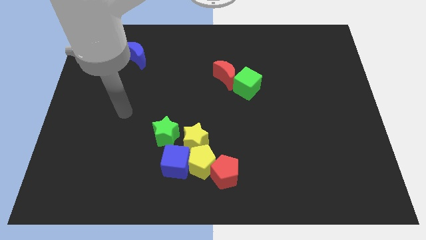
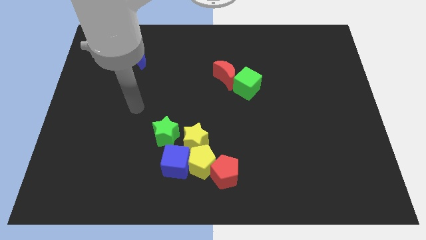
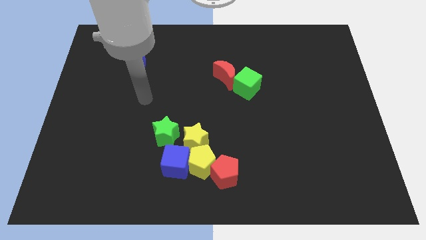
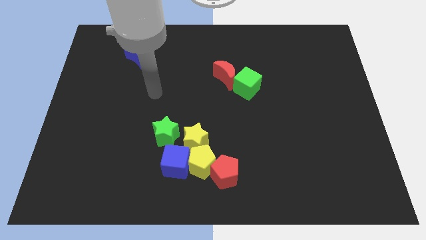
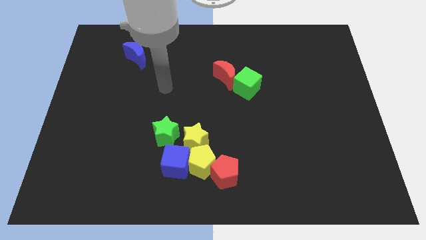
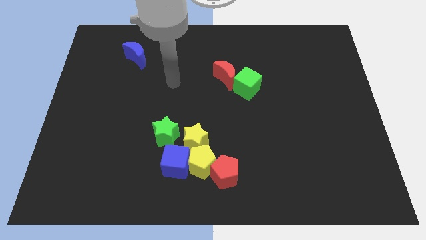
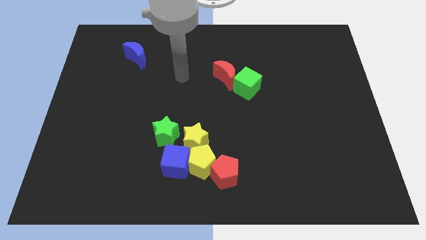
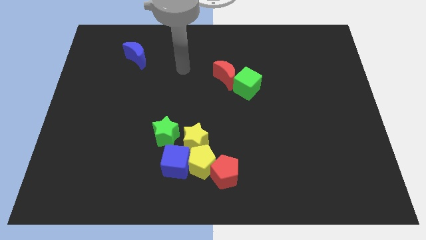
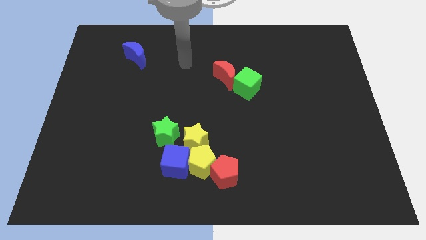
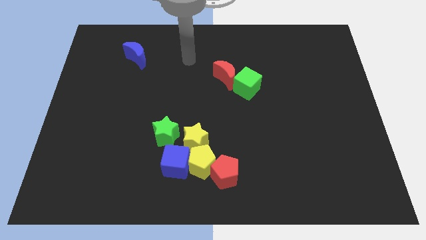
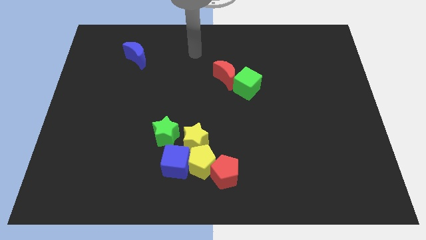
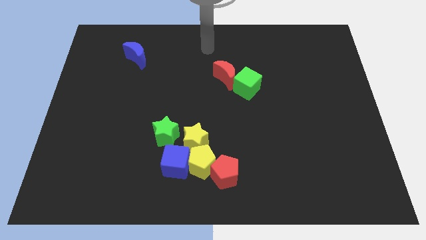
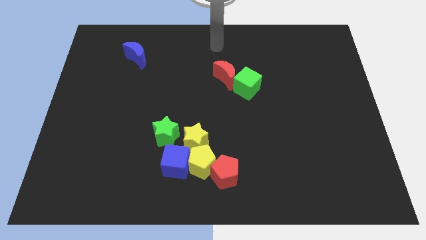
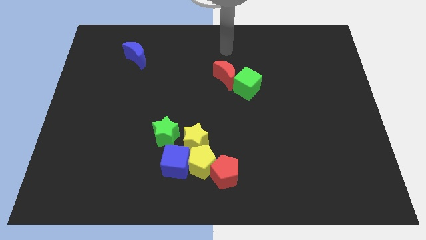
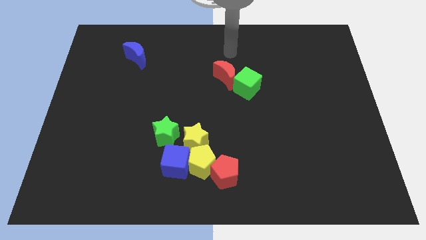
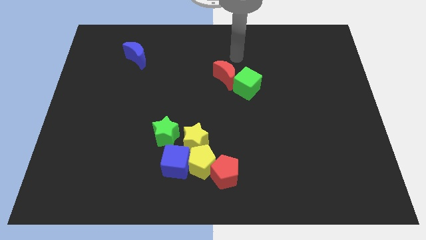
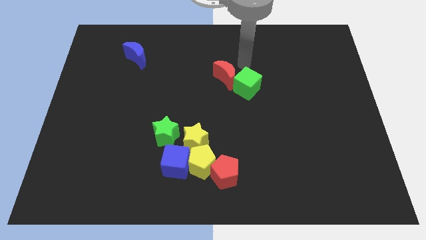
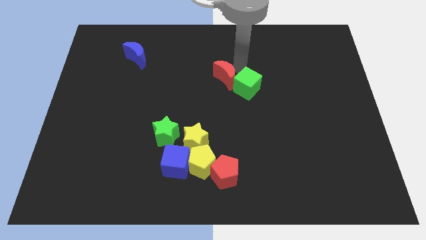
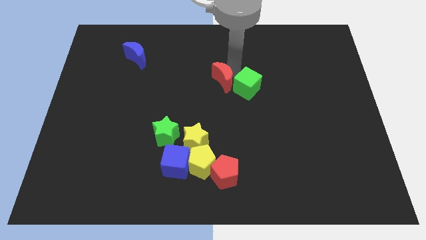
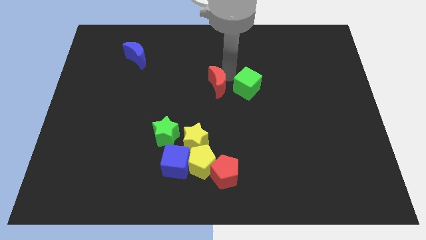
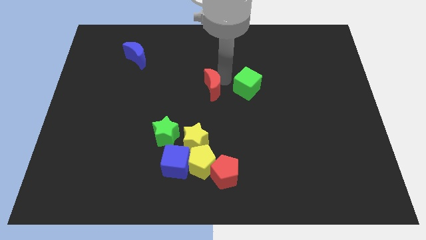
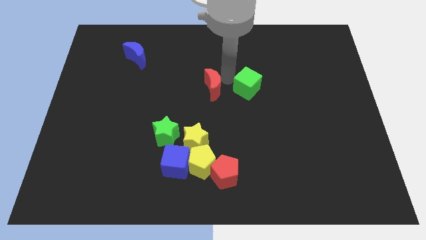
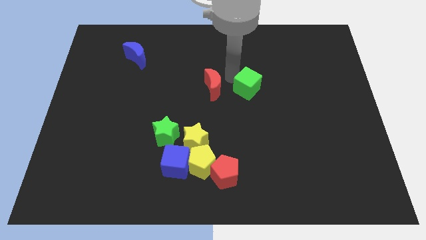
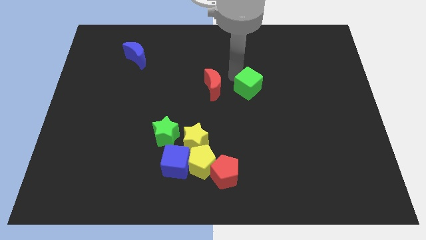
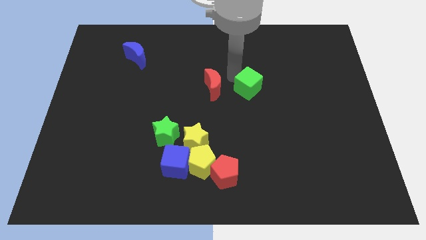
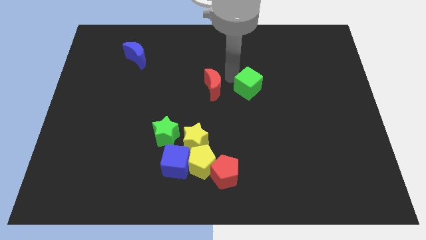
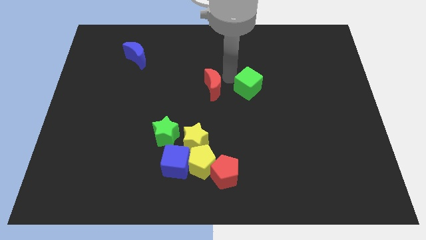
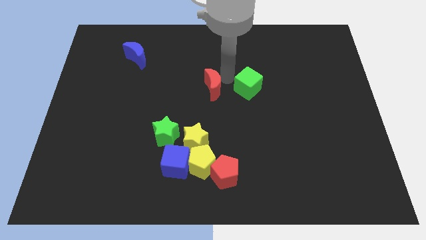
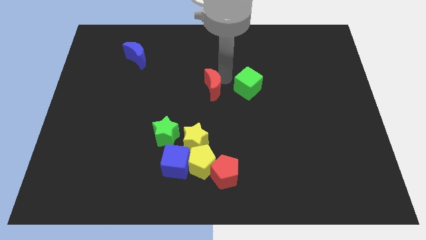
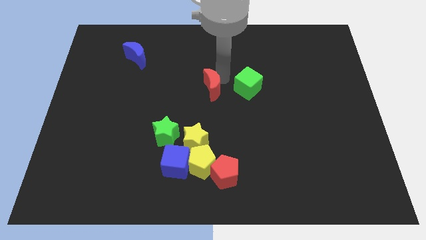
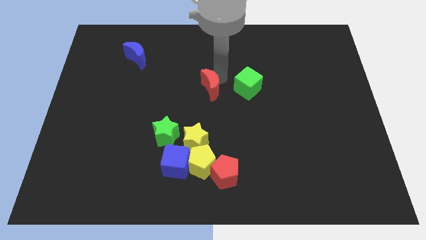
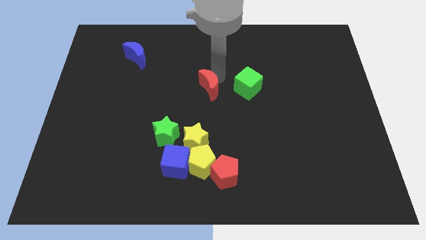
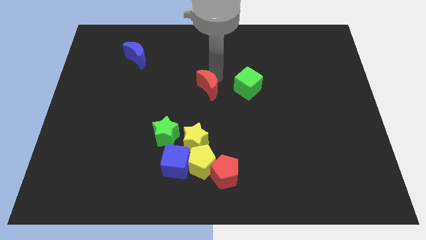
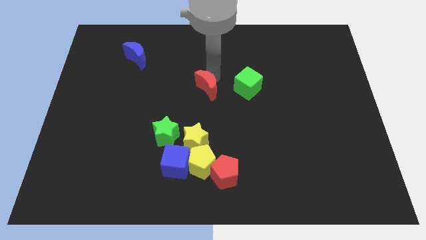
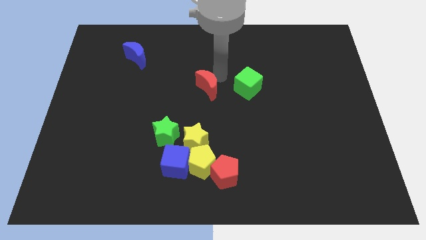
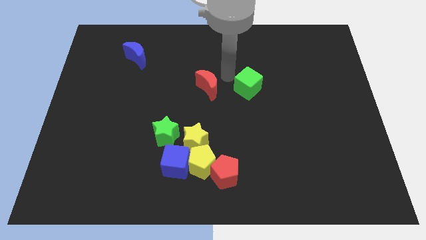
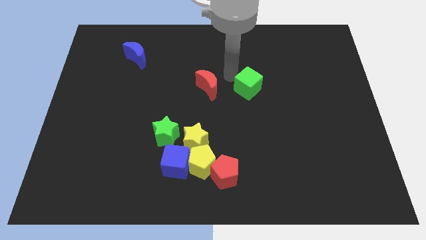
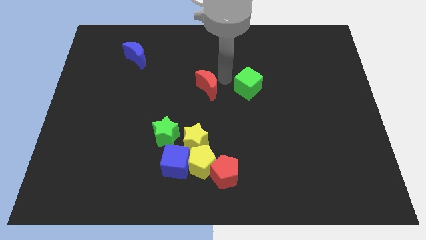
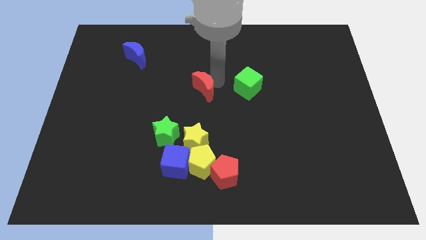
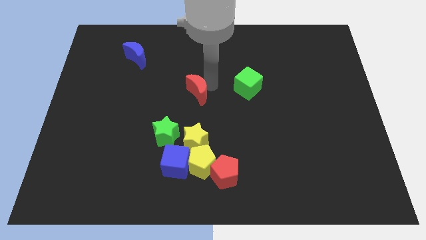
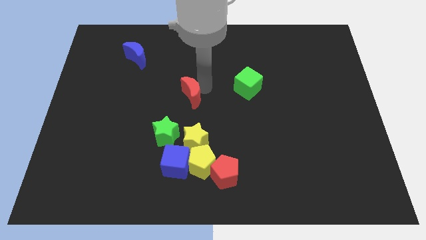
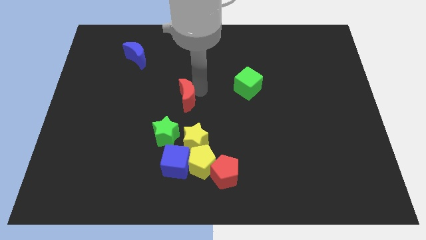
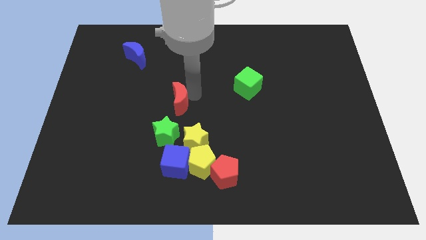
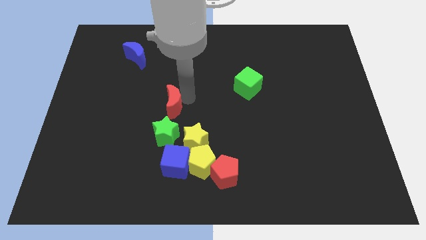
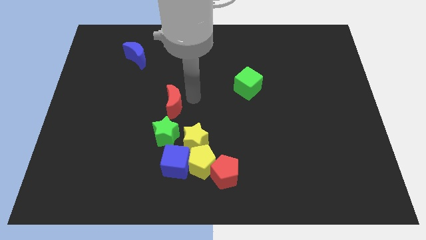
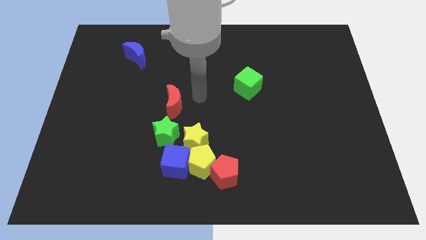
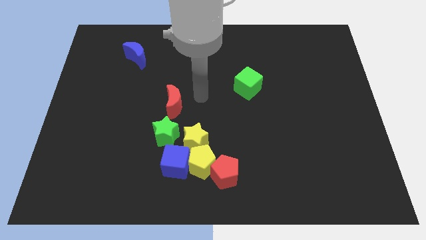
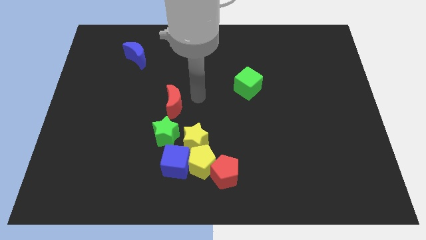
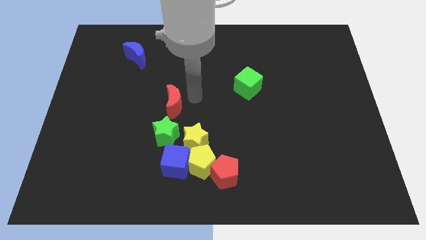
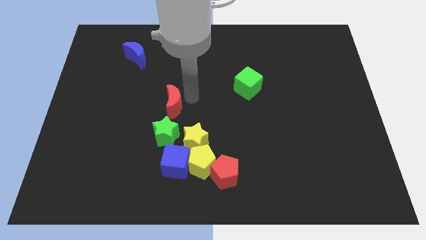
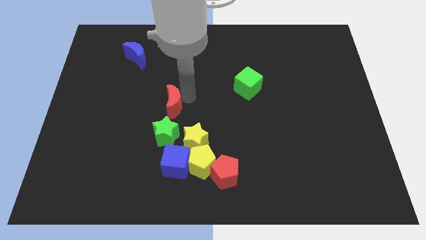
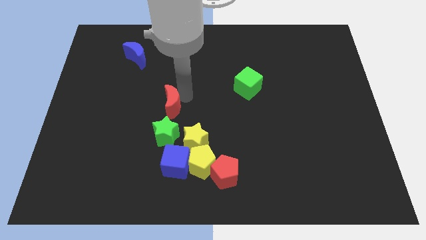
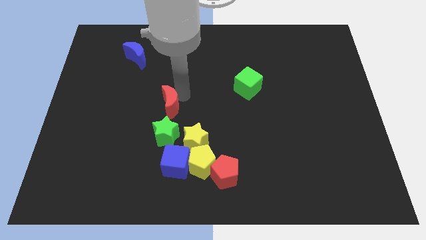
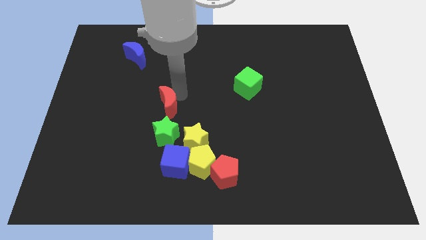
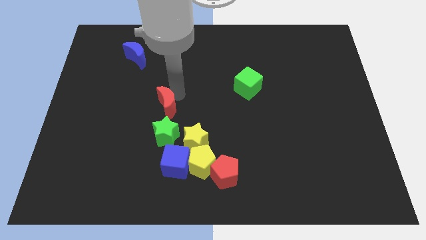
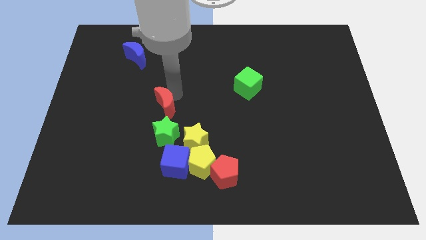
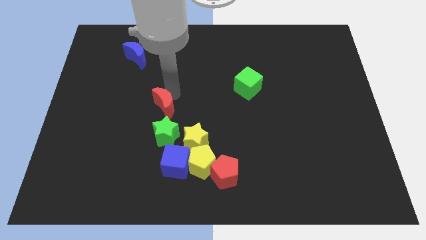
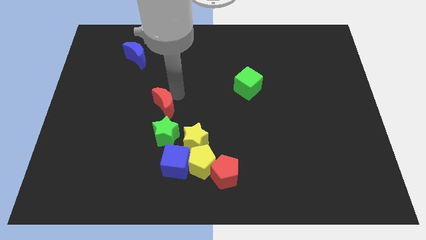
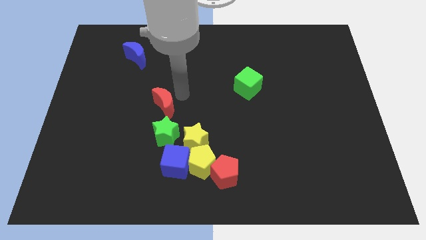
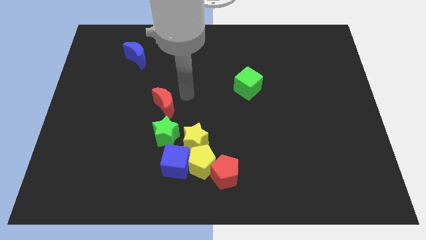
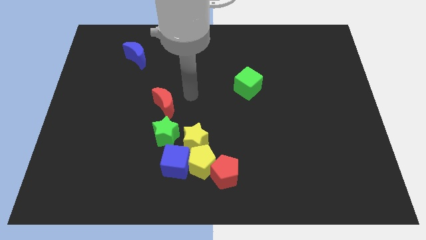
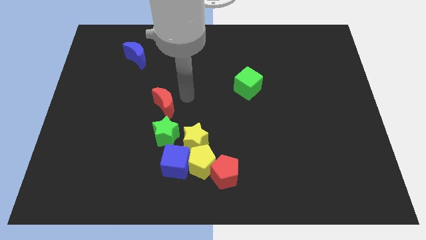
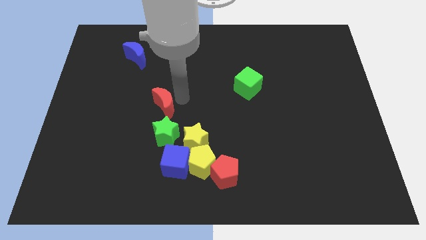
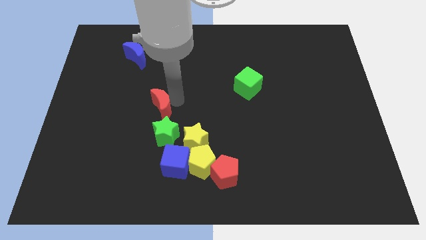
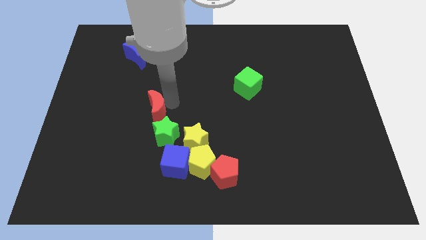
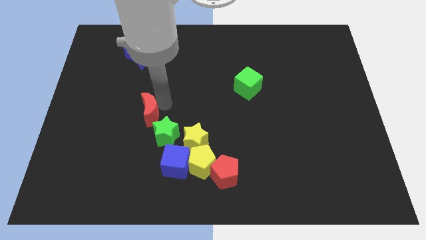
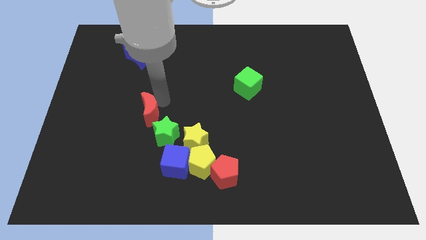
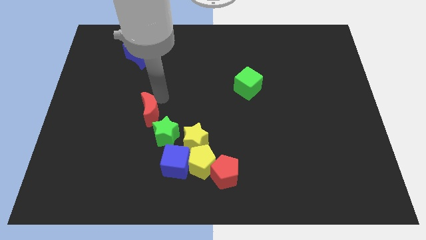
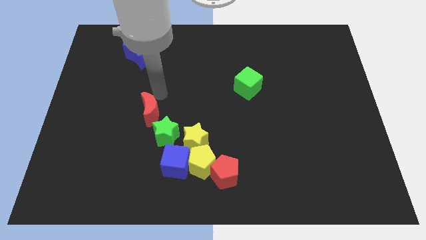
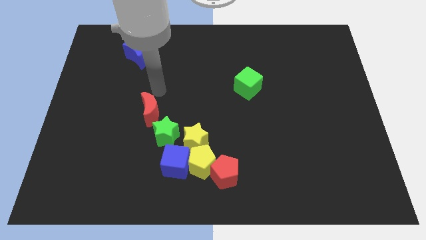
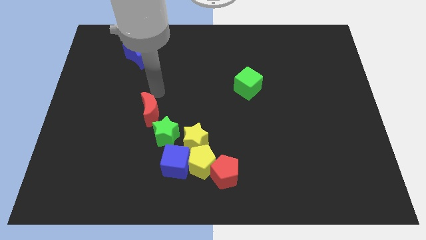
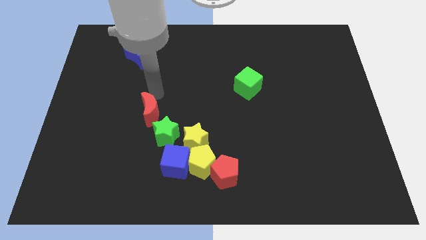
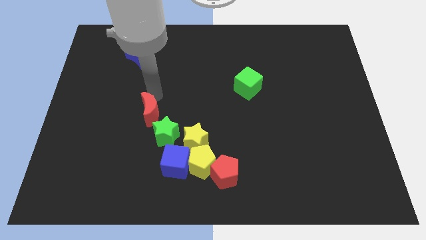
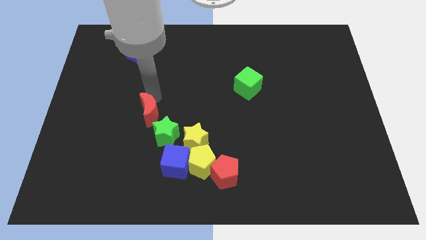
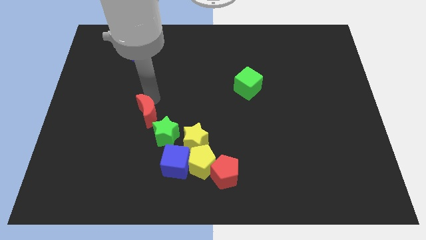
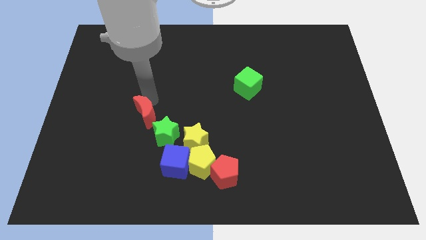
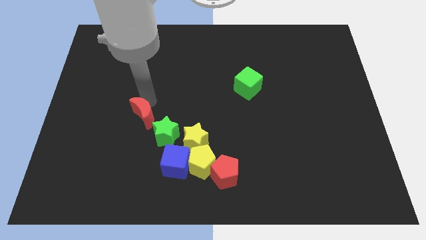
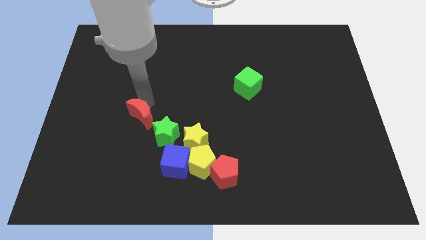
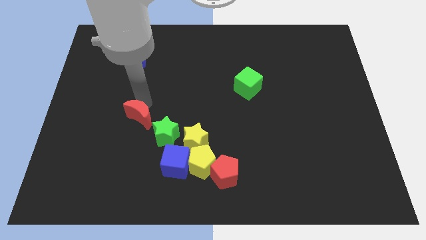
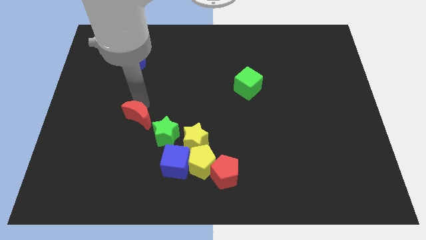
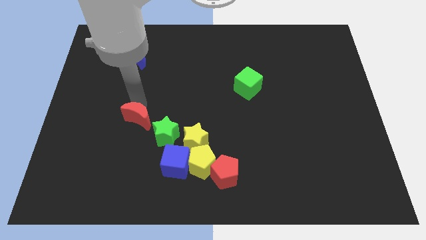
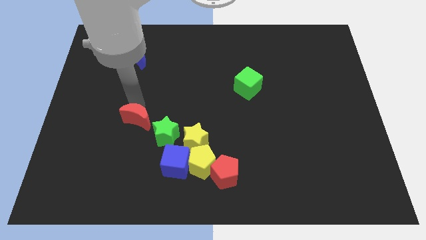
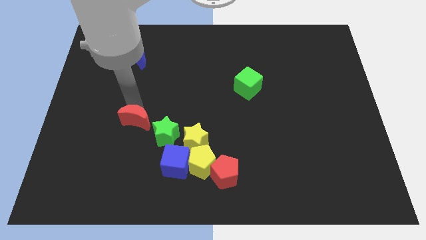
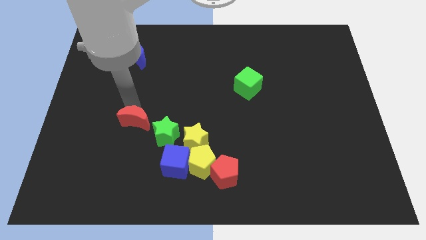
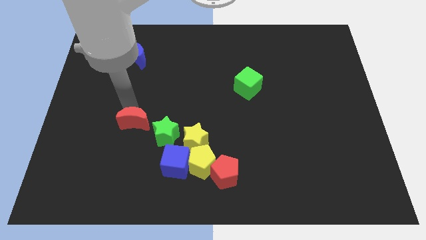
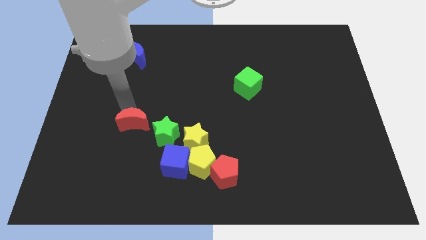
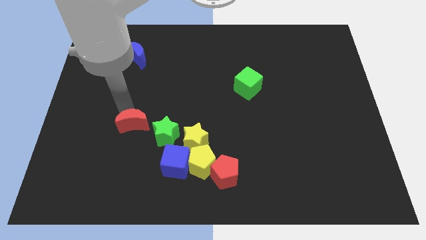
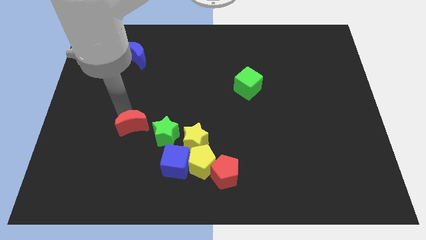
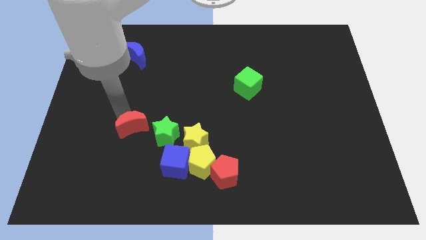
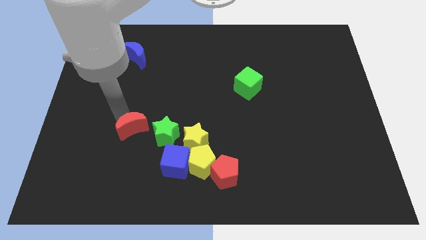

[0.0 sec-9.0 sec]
put the red moon to the left of the yellow star
